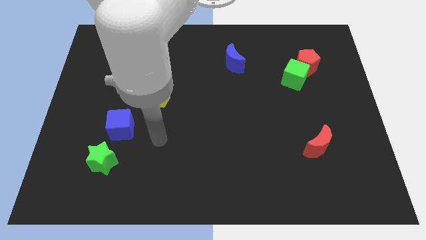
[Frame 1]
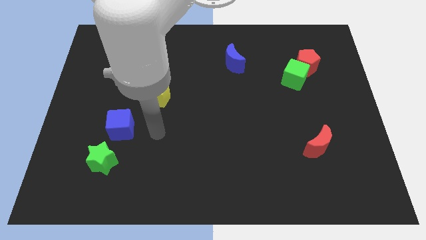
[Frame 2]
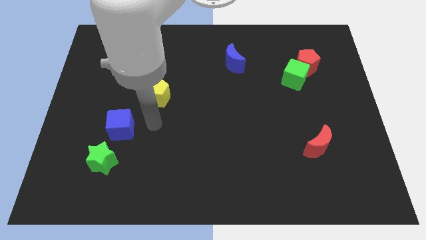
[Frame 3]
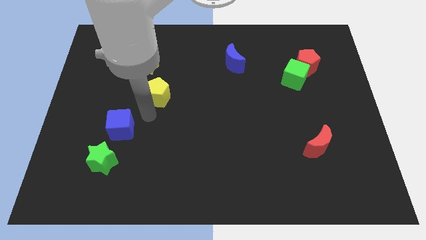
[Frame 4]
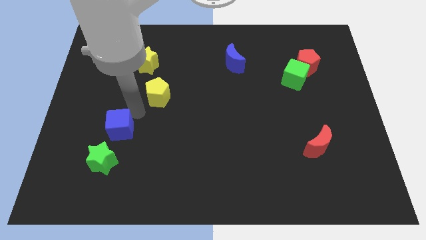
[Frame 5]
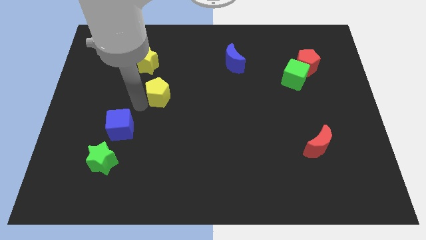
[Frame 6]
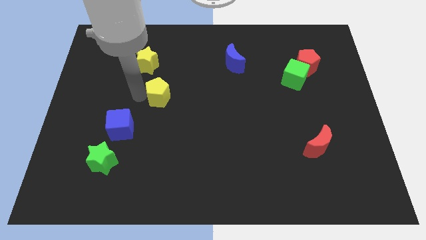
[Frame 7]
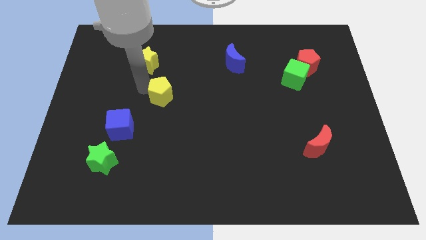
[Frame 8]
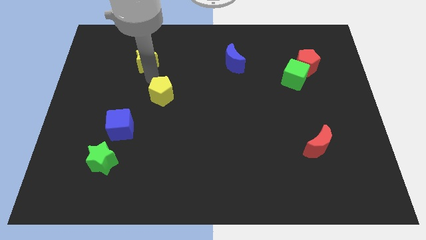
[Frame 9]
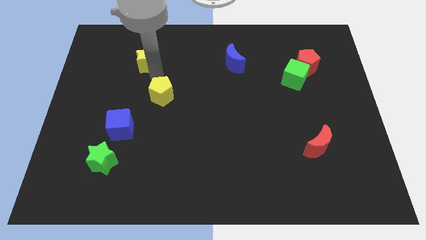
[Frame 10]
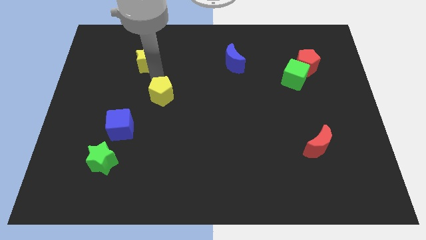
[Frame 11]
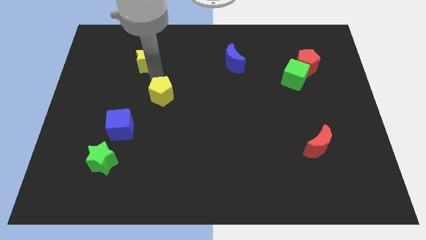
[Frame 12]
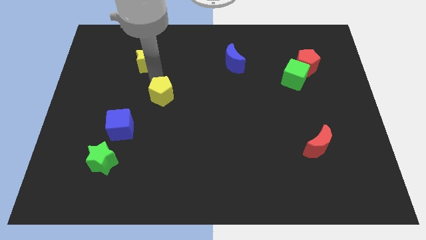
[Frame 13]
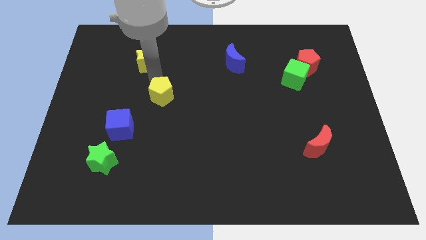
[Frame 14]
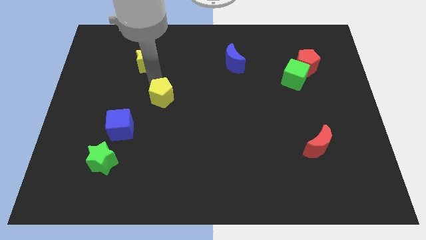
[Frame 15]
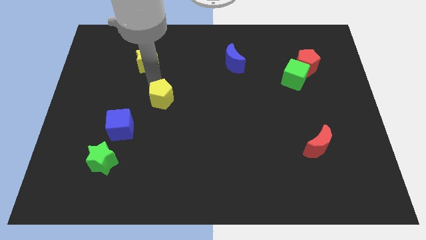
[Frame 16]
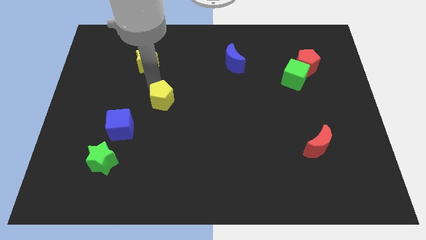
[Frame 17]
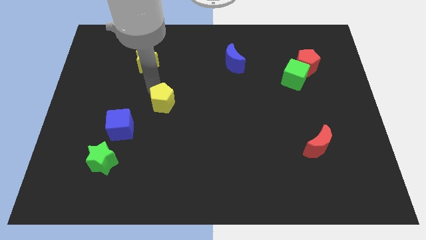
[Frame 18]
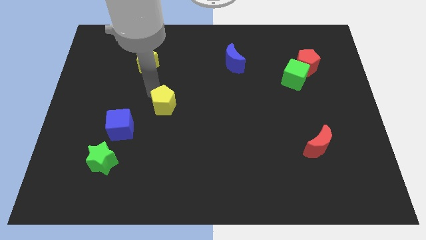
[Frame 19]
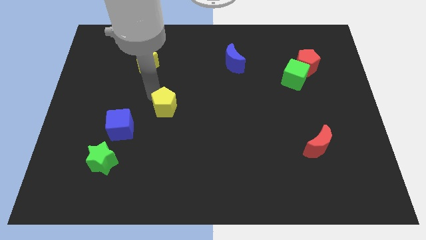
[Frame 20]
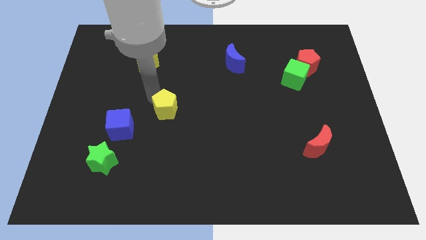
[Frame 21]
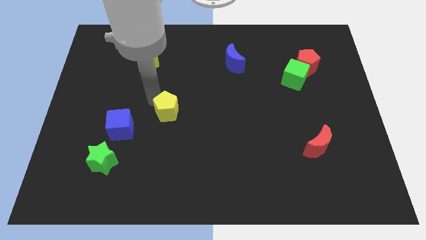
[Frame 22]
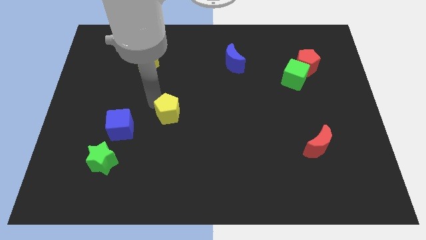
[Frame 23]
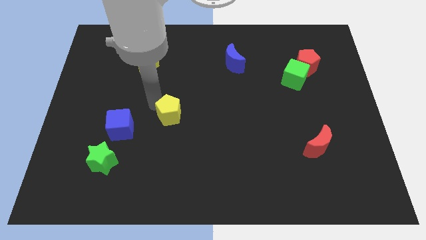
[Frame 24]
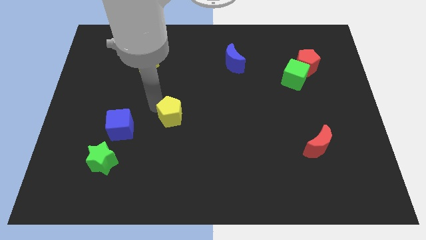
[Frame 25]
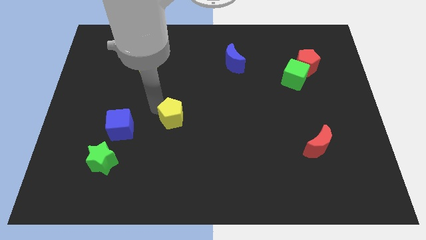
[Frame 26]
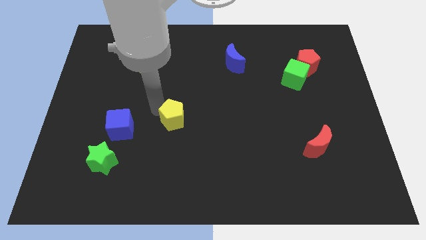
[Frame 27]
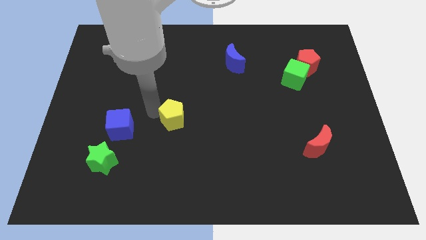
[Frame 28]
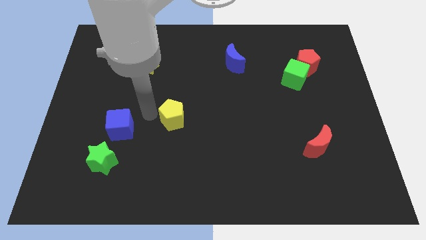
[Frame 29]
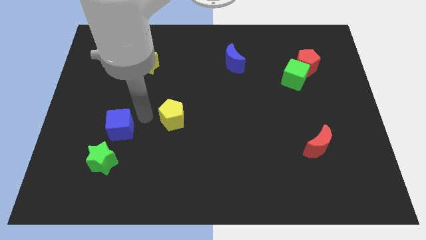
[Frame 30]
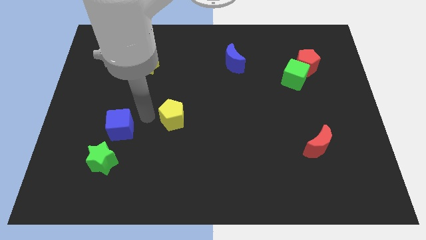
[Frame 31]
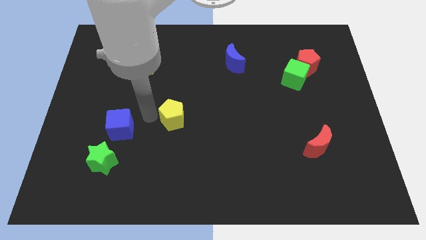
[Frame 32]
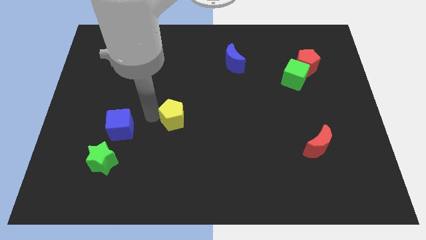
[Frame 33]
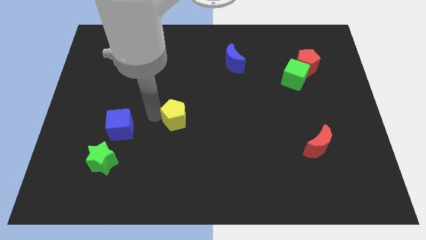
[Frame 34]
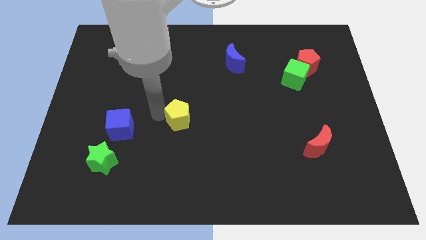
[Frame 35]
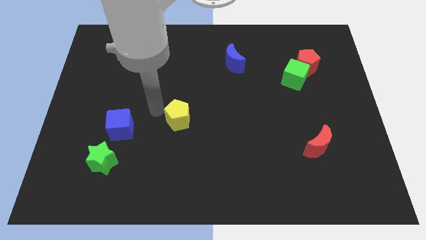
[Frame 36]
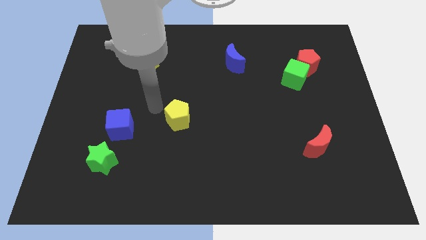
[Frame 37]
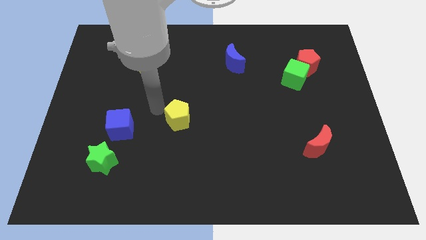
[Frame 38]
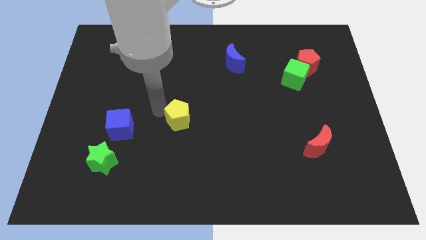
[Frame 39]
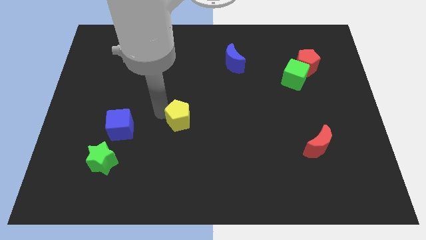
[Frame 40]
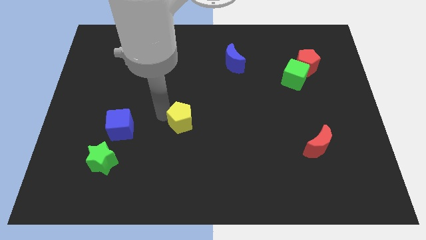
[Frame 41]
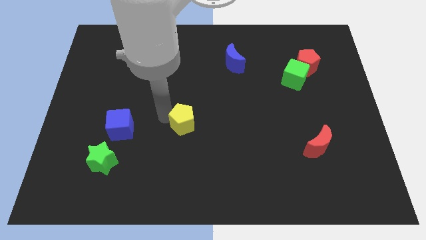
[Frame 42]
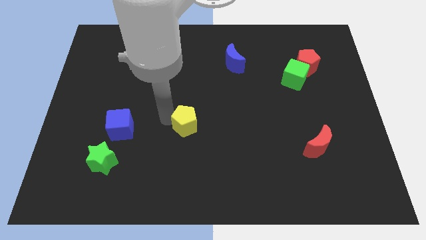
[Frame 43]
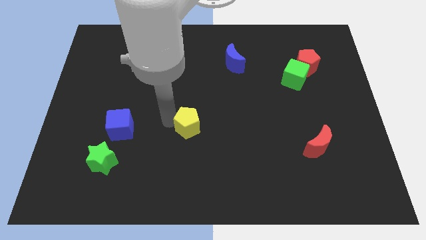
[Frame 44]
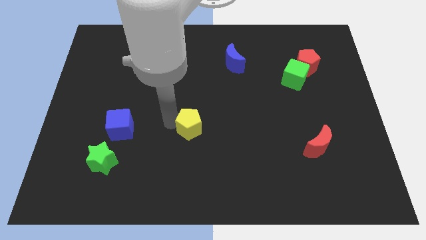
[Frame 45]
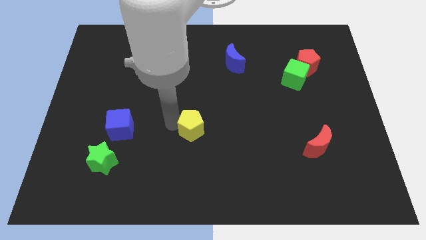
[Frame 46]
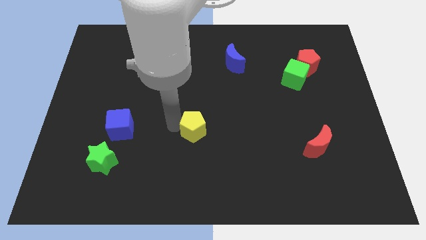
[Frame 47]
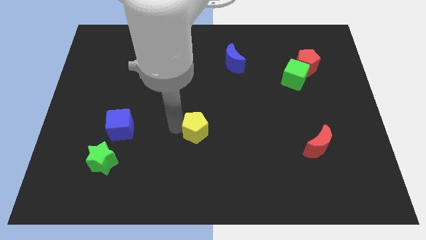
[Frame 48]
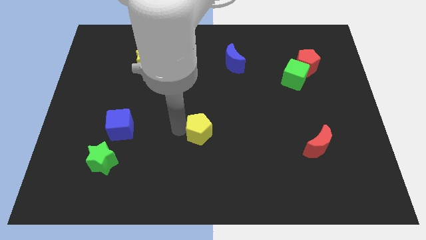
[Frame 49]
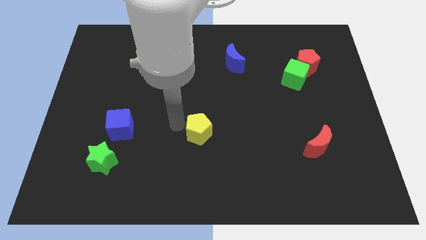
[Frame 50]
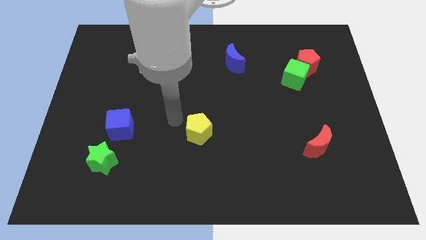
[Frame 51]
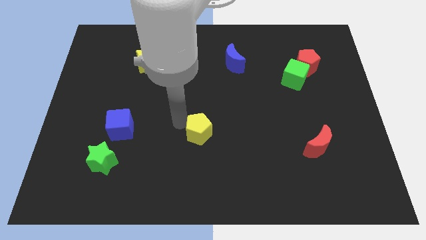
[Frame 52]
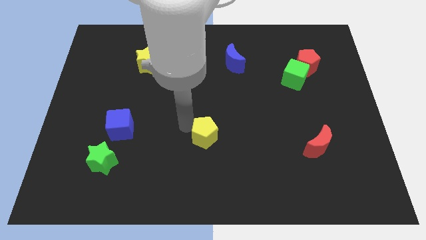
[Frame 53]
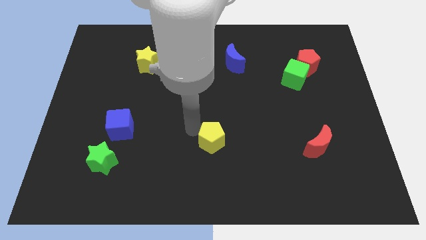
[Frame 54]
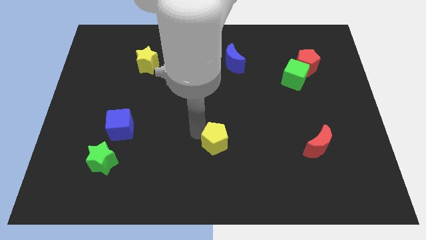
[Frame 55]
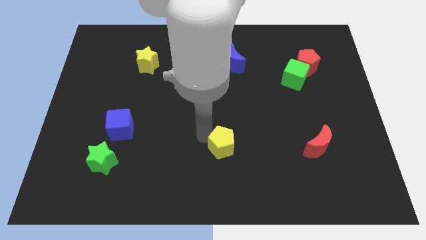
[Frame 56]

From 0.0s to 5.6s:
slide the yellow pentagon diagonally downwards and right

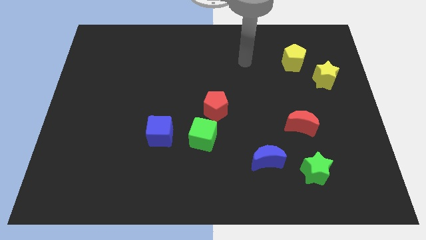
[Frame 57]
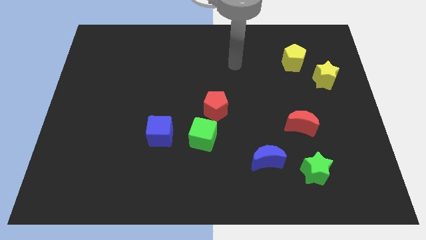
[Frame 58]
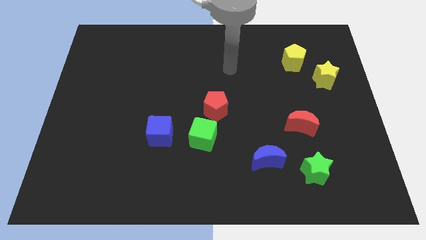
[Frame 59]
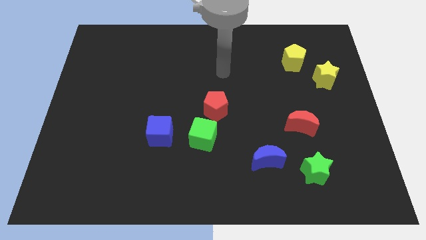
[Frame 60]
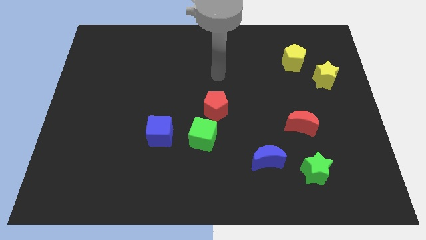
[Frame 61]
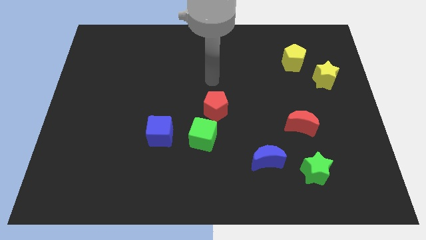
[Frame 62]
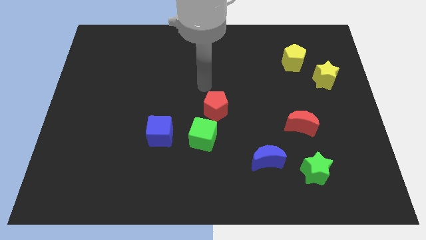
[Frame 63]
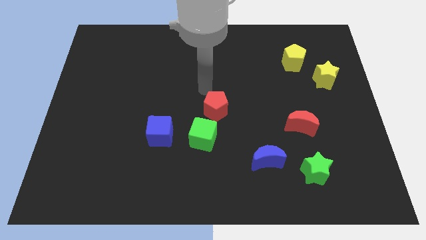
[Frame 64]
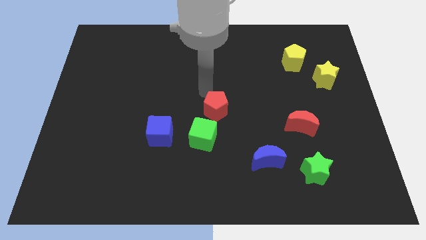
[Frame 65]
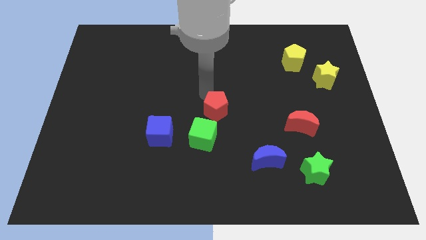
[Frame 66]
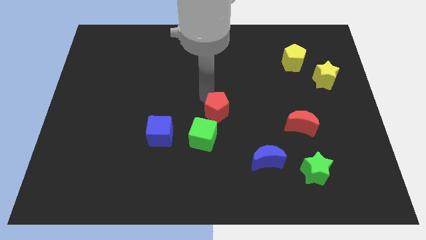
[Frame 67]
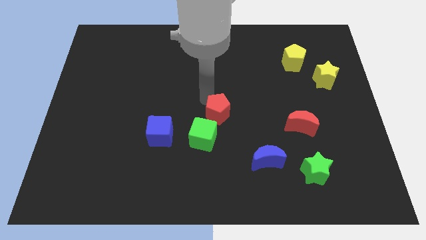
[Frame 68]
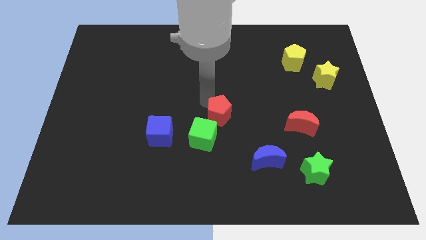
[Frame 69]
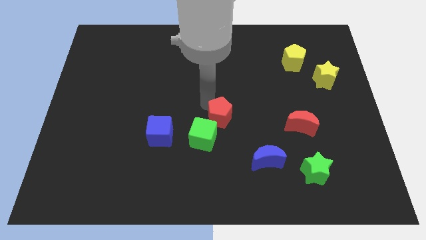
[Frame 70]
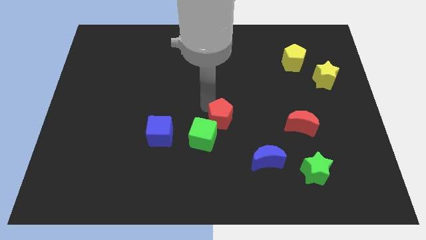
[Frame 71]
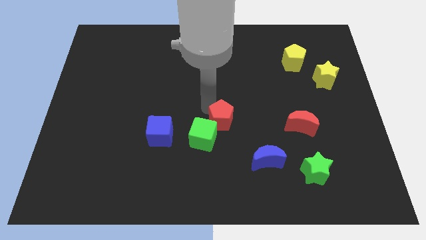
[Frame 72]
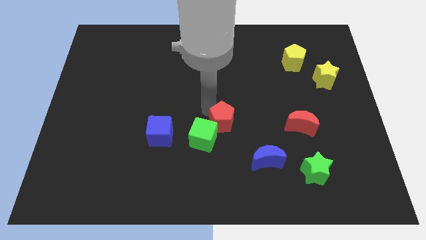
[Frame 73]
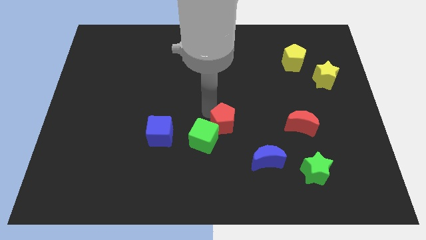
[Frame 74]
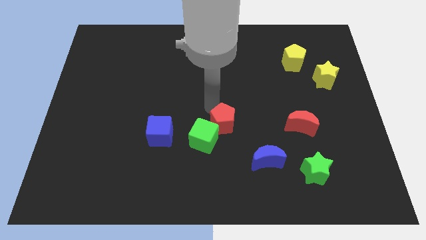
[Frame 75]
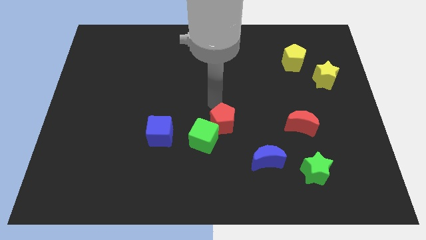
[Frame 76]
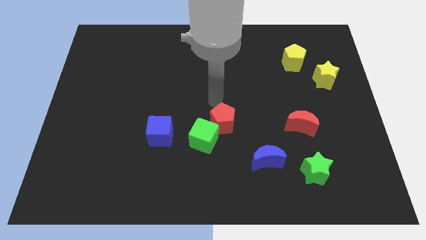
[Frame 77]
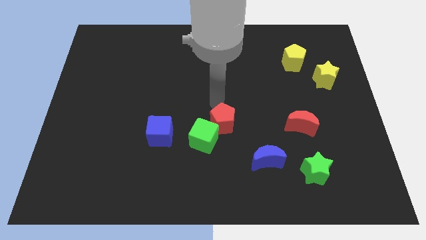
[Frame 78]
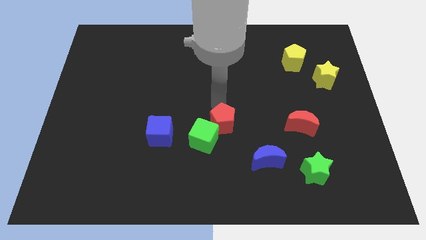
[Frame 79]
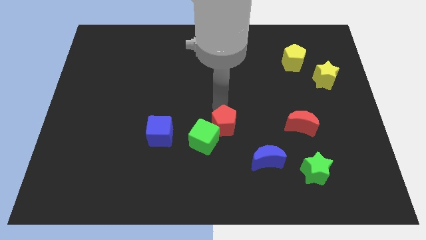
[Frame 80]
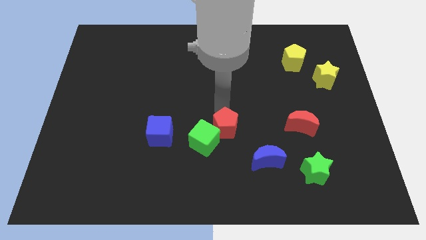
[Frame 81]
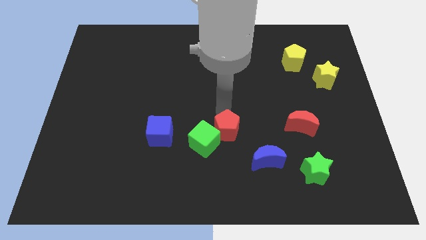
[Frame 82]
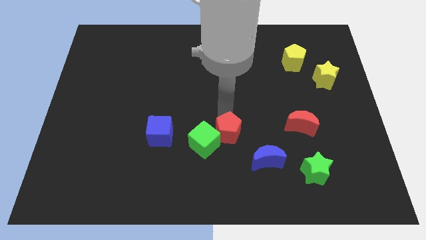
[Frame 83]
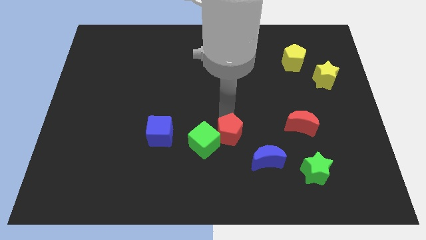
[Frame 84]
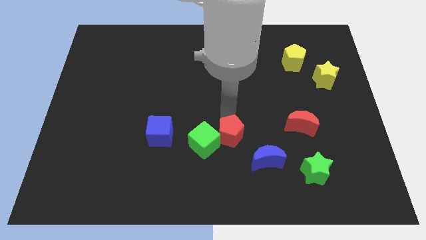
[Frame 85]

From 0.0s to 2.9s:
move the red pentagon downwards a bit
